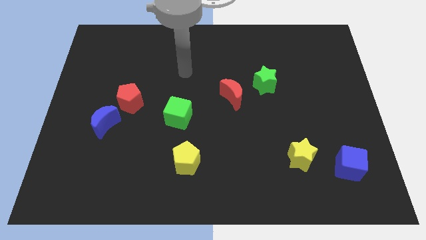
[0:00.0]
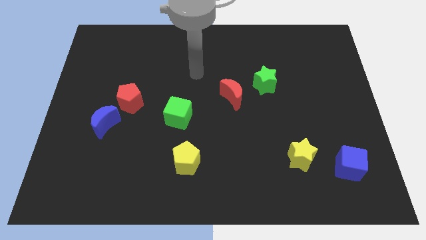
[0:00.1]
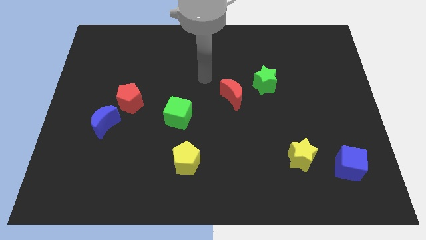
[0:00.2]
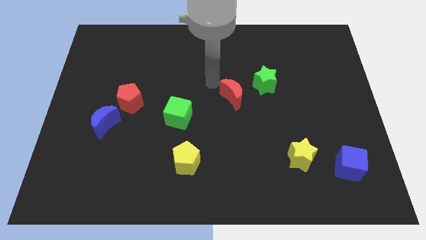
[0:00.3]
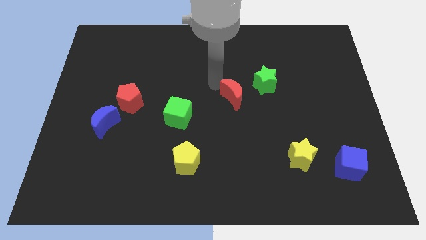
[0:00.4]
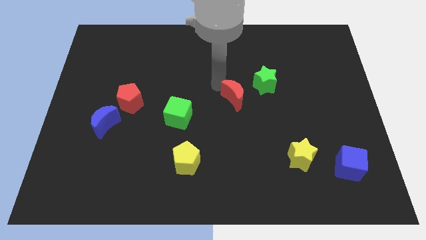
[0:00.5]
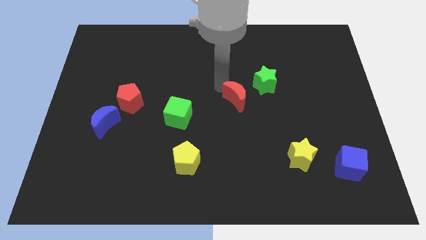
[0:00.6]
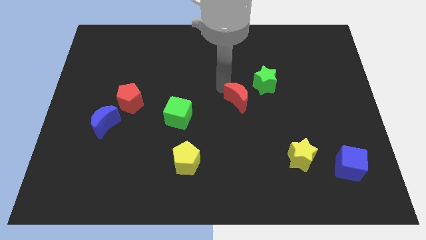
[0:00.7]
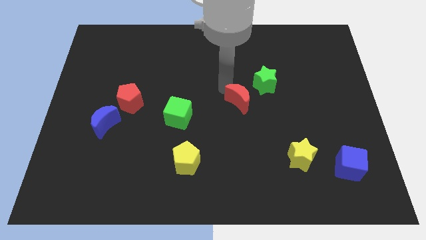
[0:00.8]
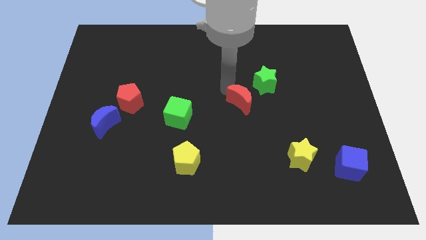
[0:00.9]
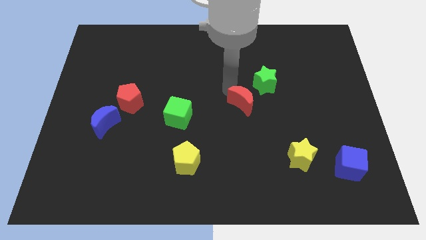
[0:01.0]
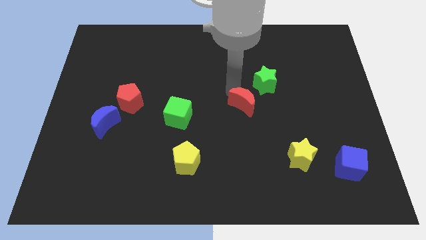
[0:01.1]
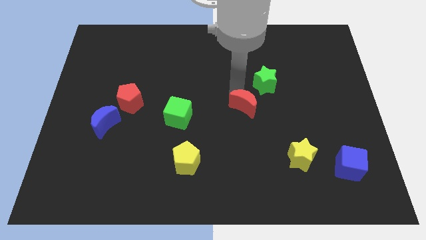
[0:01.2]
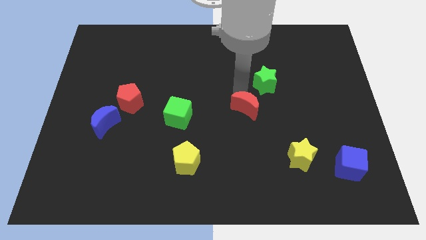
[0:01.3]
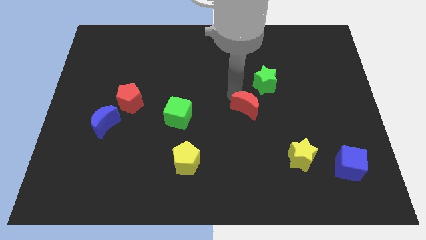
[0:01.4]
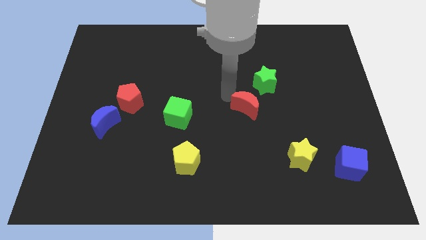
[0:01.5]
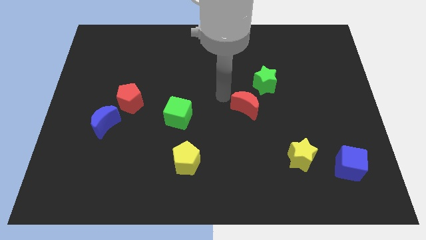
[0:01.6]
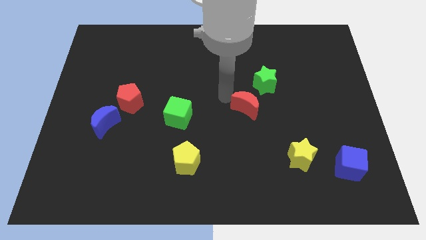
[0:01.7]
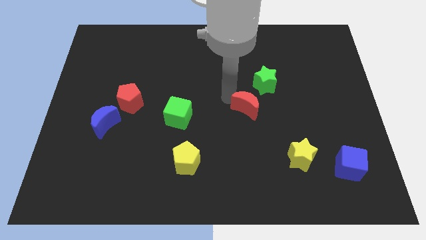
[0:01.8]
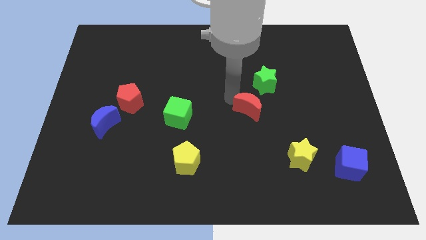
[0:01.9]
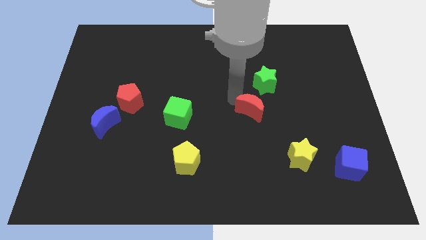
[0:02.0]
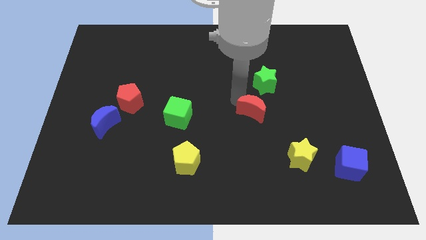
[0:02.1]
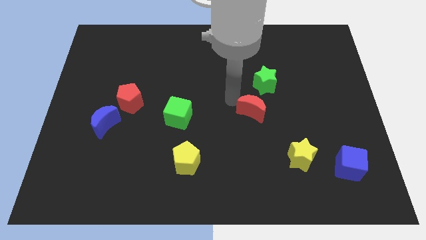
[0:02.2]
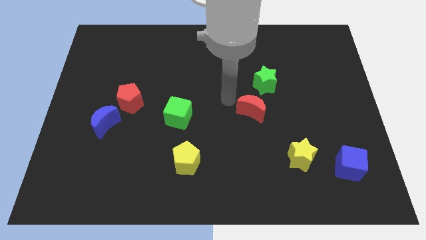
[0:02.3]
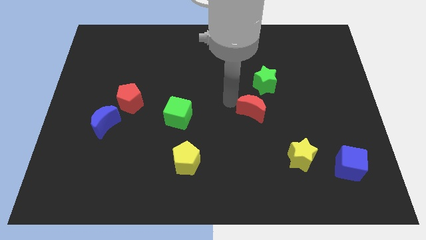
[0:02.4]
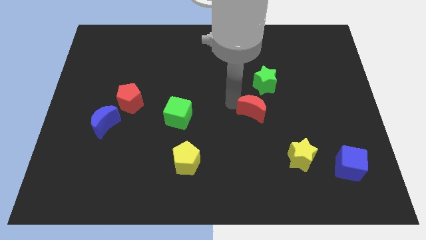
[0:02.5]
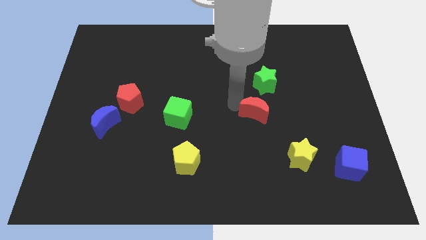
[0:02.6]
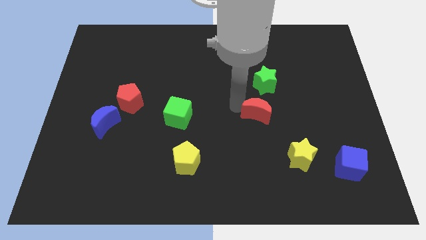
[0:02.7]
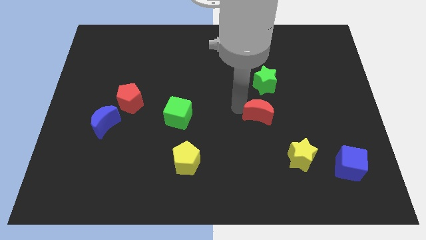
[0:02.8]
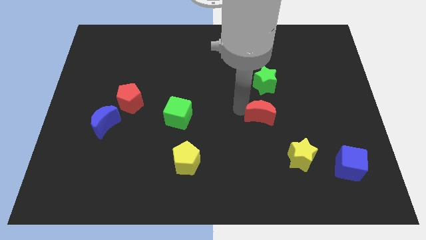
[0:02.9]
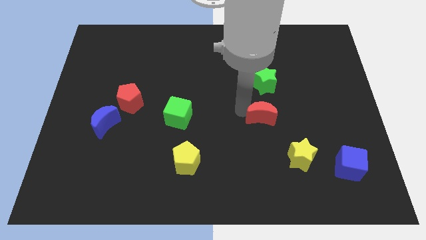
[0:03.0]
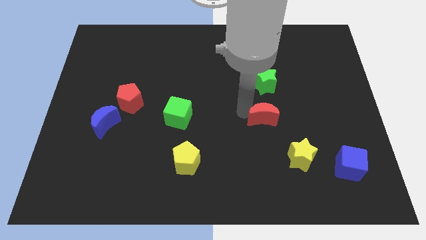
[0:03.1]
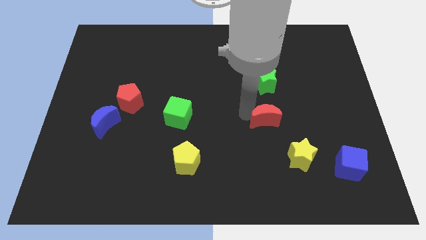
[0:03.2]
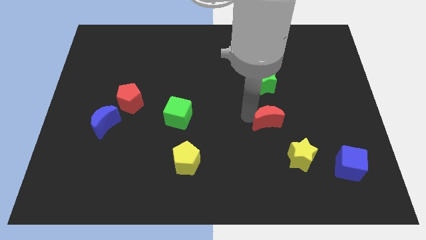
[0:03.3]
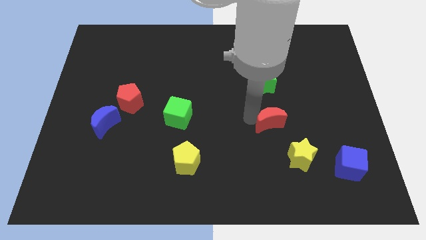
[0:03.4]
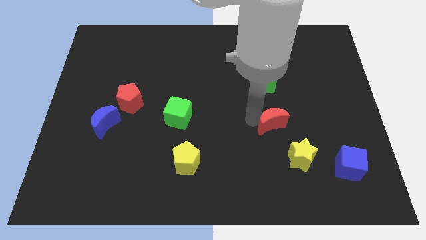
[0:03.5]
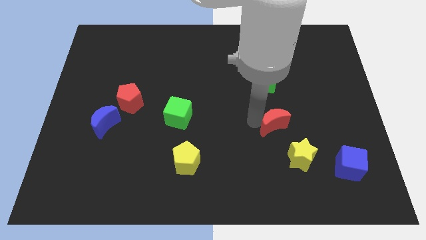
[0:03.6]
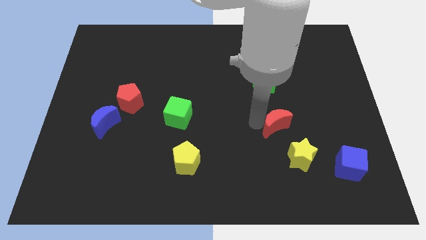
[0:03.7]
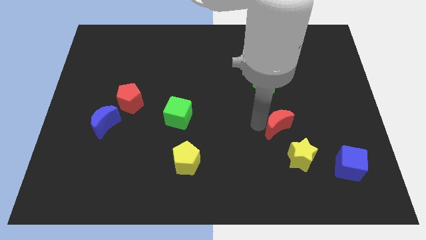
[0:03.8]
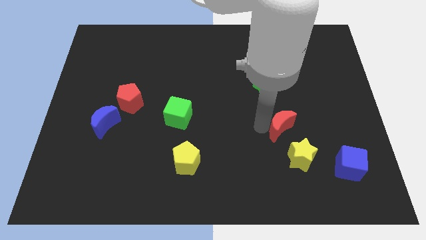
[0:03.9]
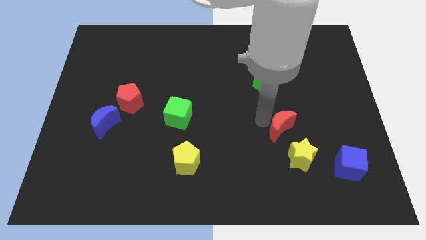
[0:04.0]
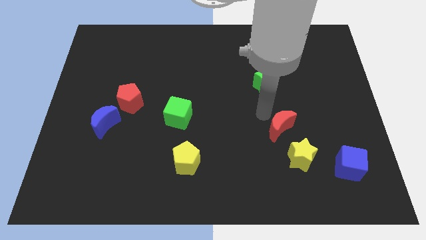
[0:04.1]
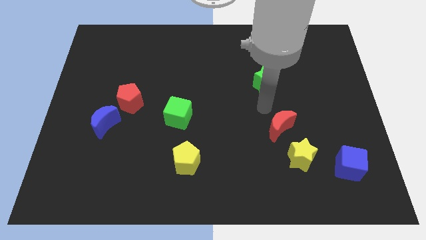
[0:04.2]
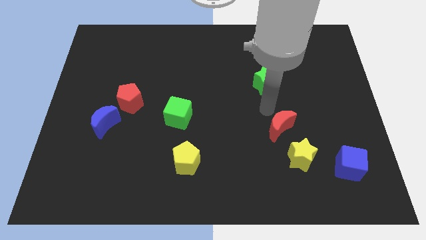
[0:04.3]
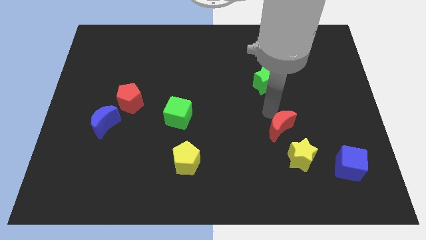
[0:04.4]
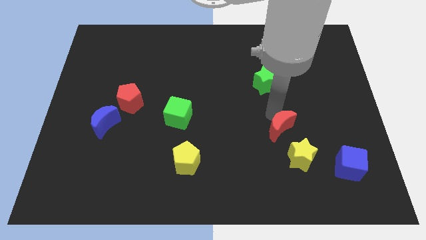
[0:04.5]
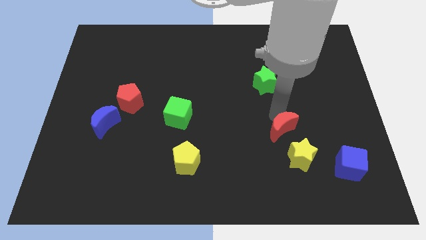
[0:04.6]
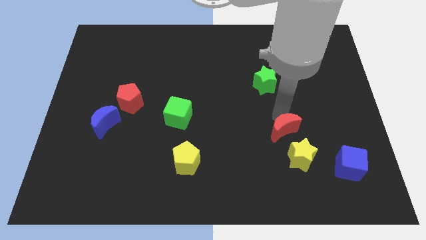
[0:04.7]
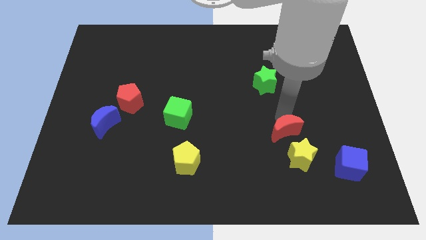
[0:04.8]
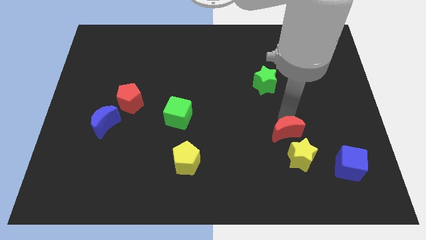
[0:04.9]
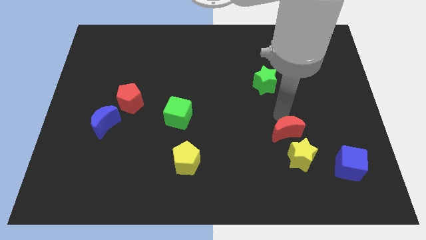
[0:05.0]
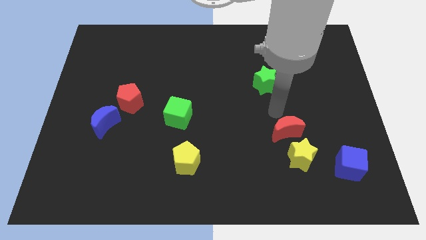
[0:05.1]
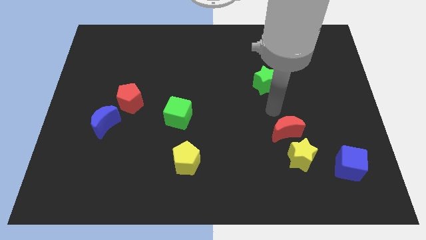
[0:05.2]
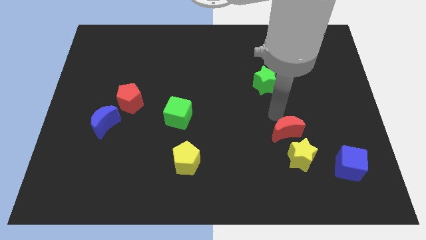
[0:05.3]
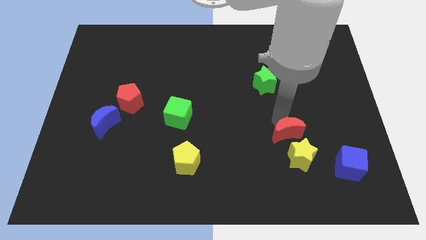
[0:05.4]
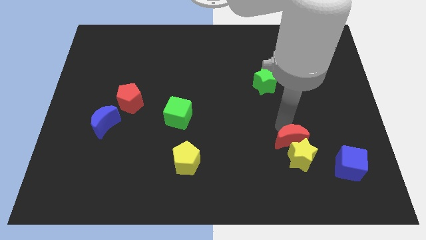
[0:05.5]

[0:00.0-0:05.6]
put the red moon to the yellow star

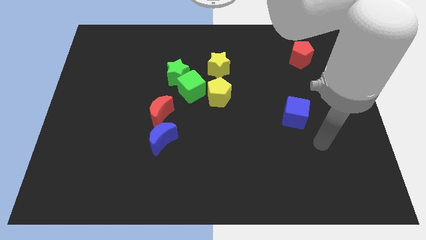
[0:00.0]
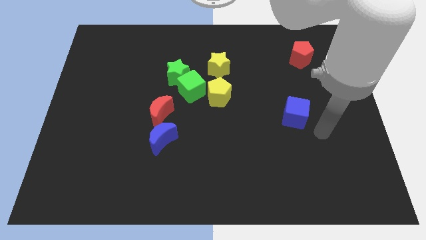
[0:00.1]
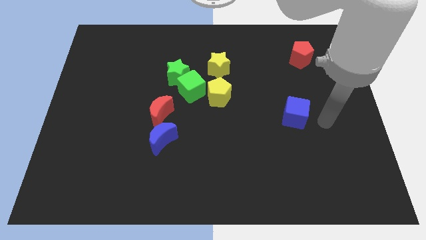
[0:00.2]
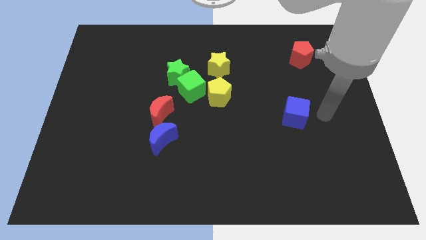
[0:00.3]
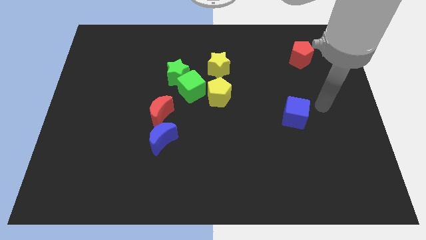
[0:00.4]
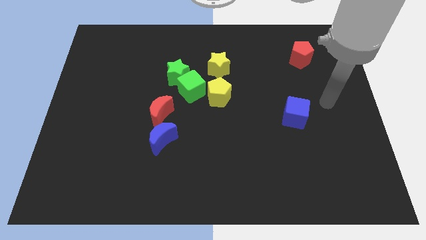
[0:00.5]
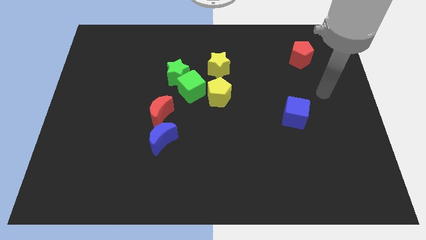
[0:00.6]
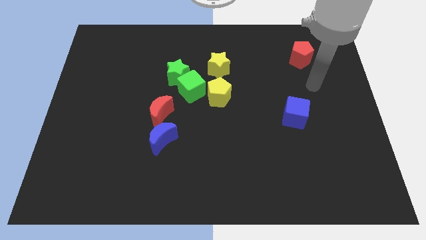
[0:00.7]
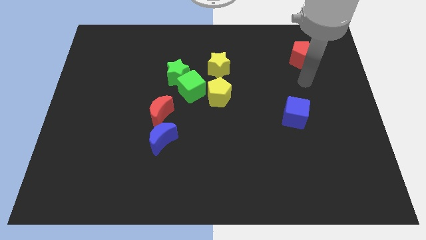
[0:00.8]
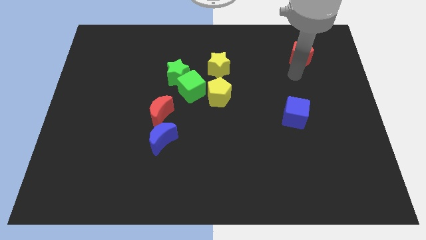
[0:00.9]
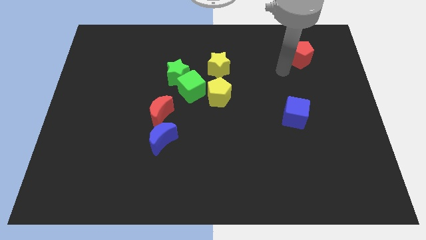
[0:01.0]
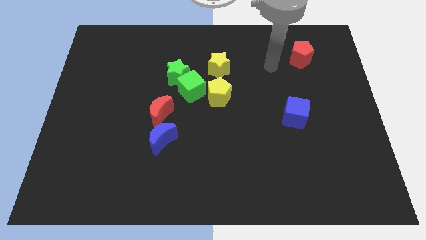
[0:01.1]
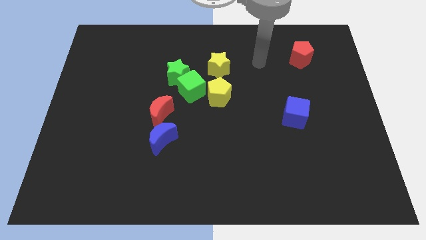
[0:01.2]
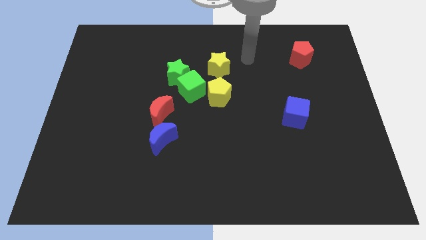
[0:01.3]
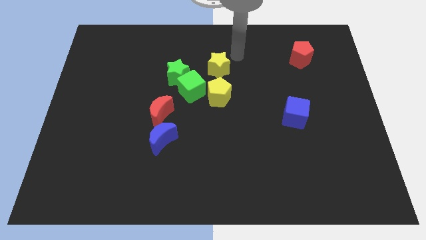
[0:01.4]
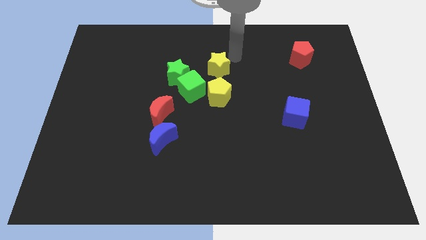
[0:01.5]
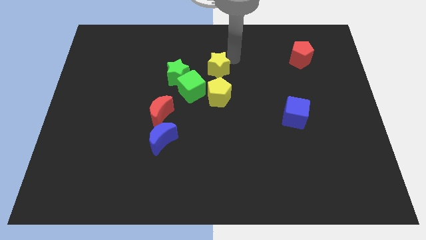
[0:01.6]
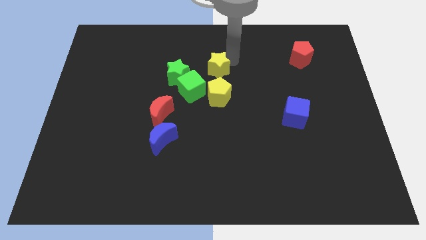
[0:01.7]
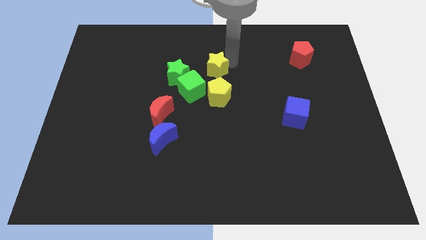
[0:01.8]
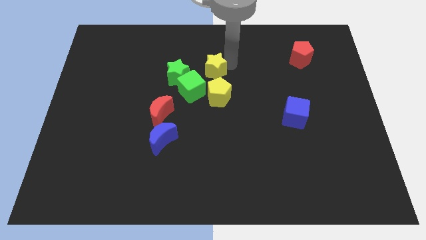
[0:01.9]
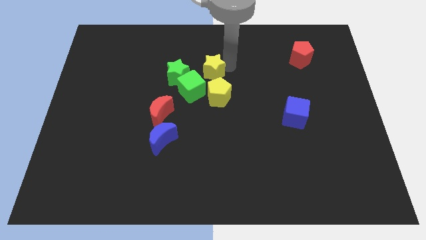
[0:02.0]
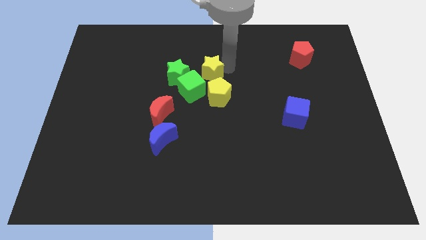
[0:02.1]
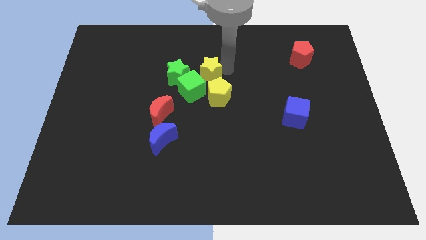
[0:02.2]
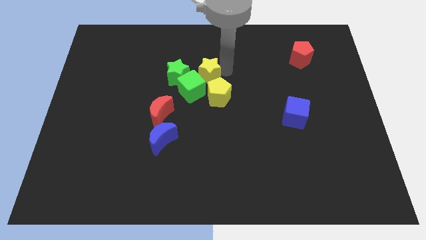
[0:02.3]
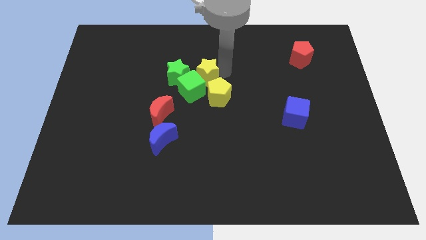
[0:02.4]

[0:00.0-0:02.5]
put the yellow star to the green cube

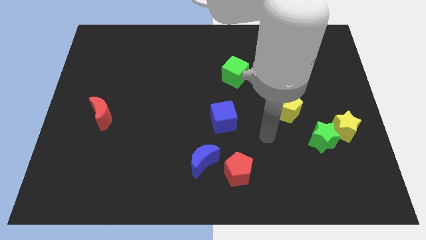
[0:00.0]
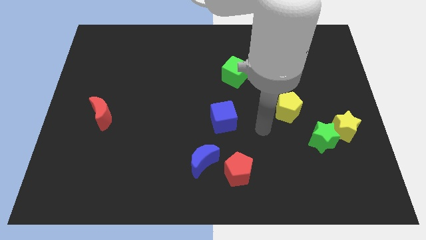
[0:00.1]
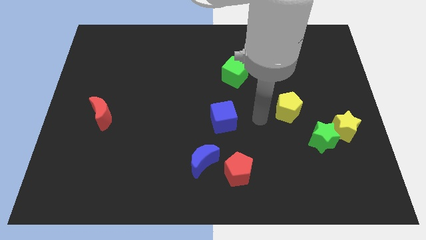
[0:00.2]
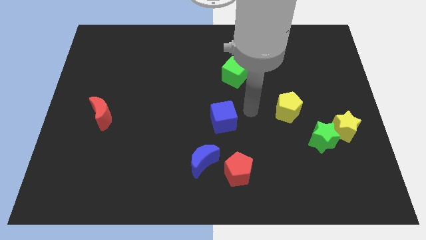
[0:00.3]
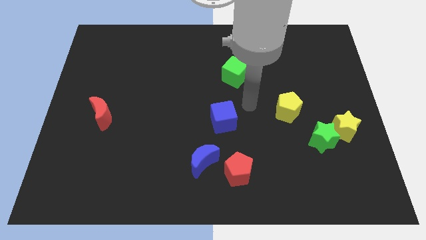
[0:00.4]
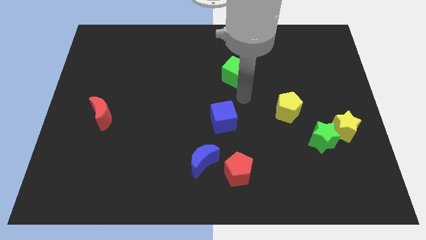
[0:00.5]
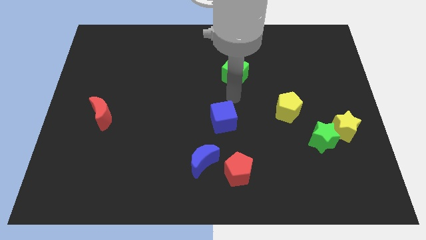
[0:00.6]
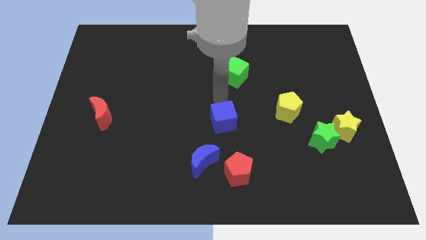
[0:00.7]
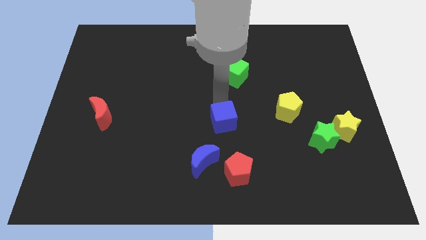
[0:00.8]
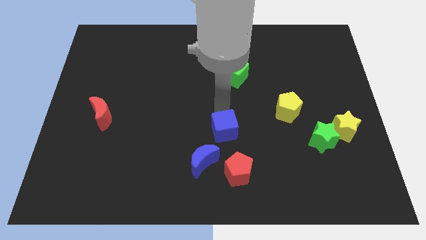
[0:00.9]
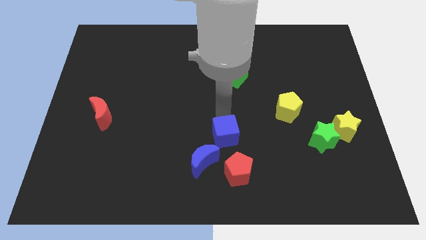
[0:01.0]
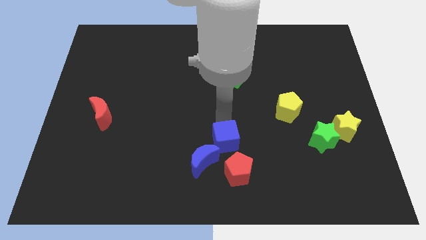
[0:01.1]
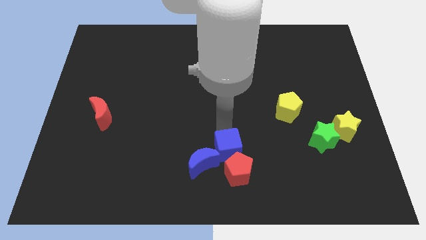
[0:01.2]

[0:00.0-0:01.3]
move the blue cube next to the red pentagon
